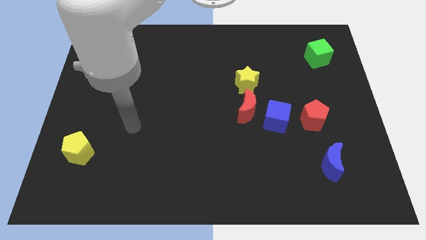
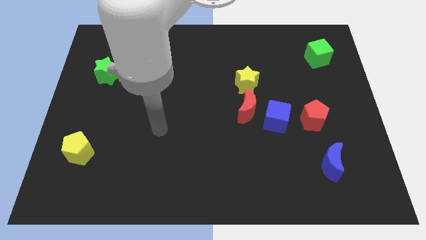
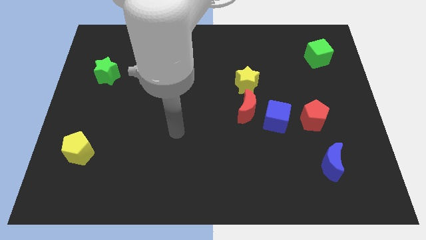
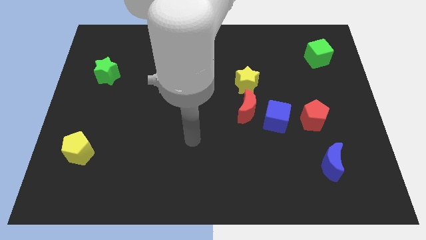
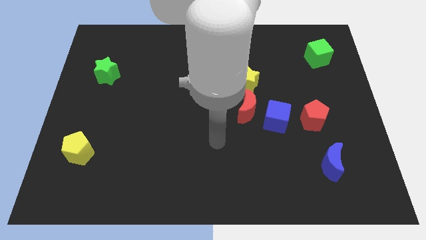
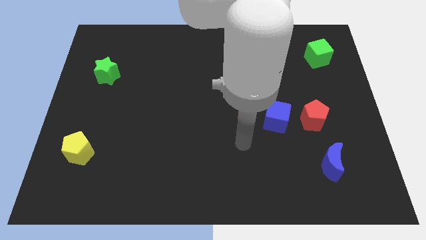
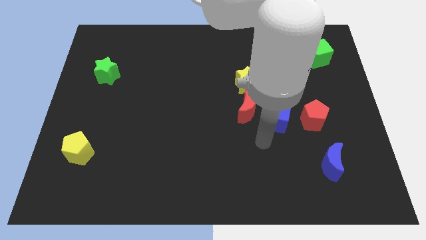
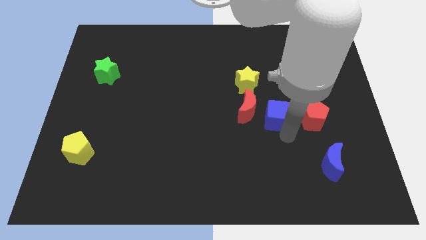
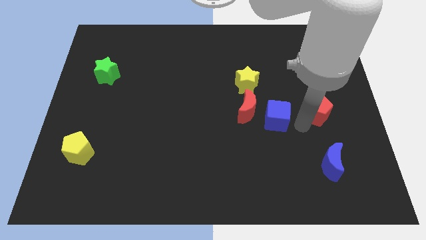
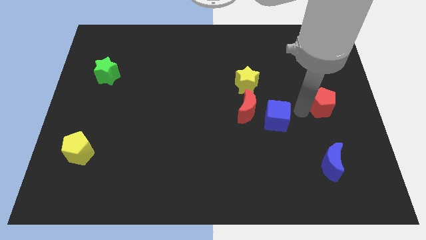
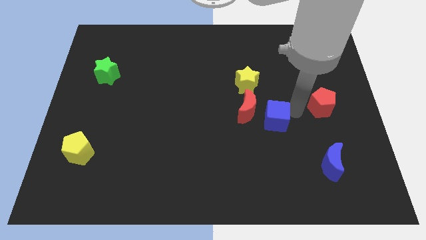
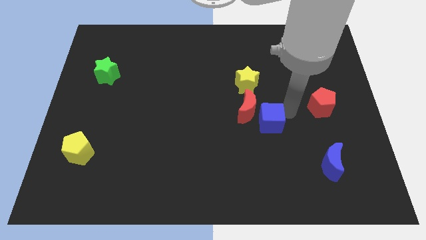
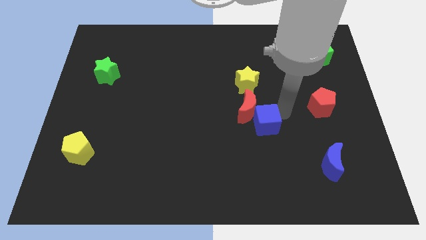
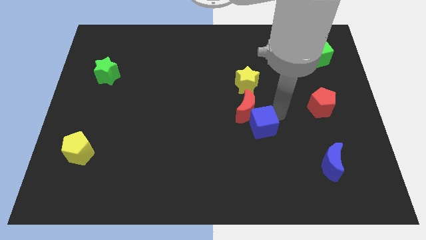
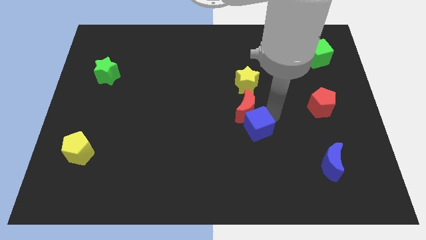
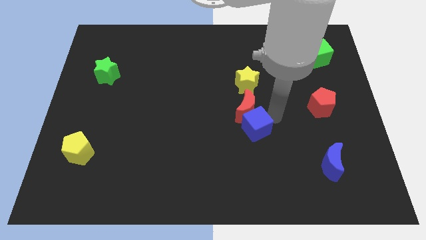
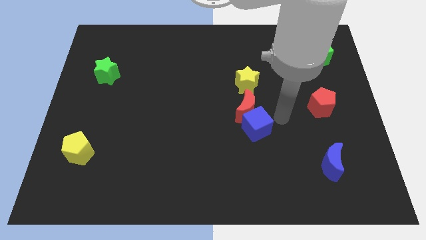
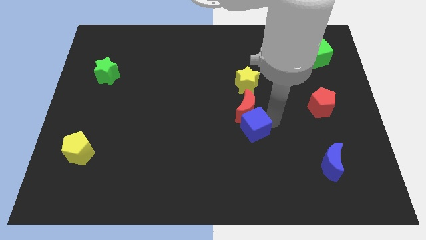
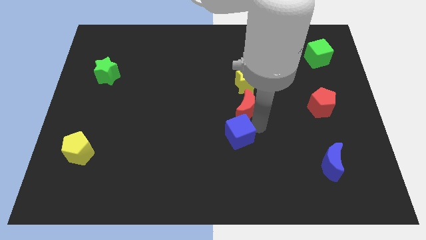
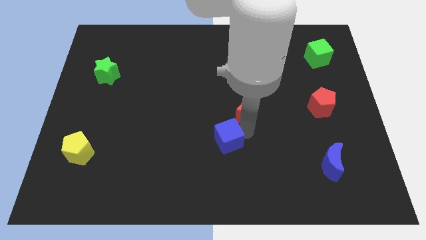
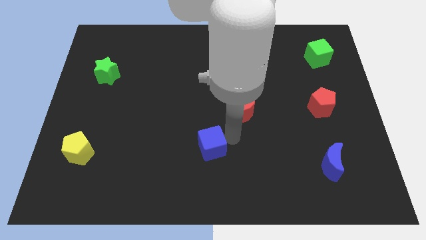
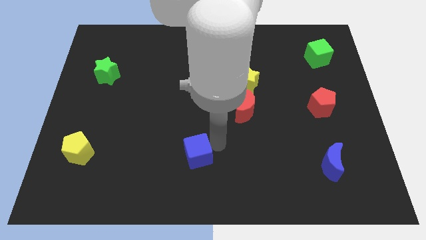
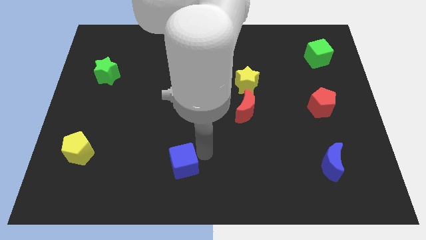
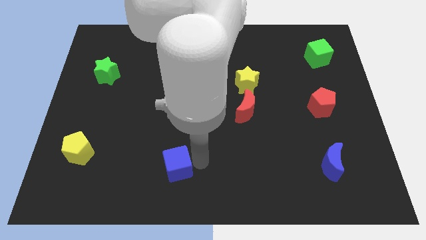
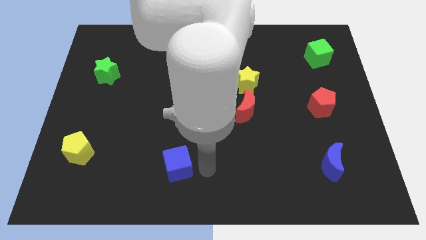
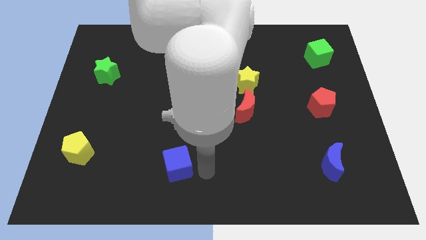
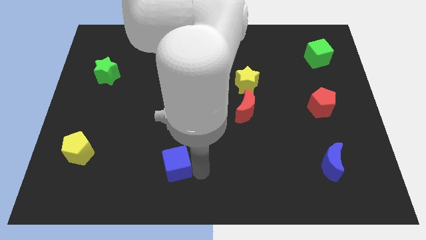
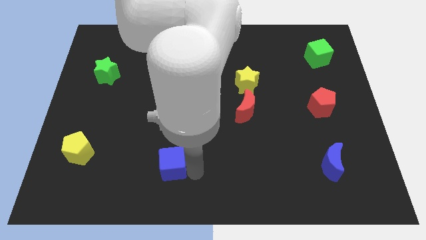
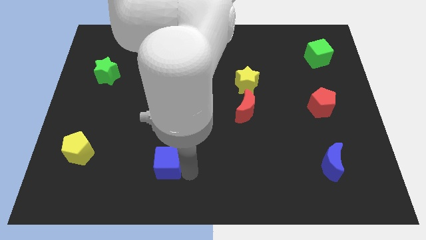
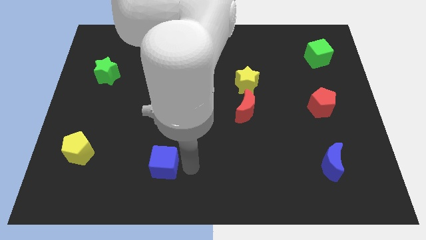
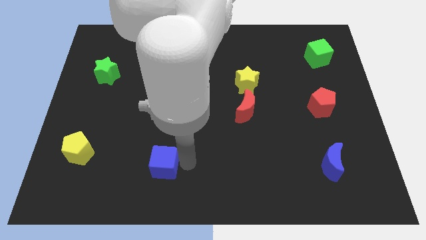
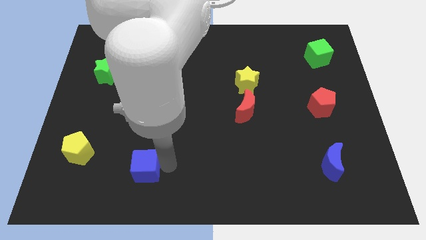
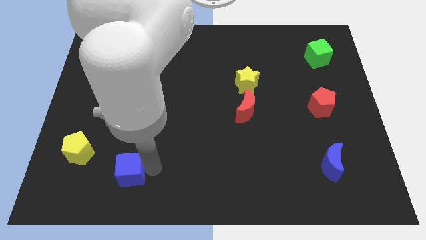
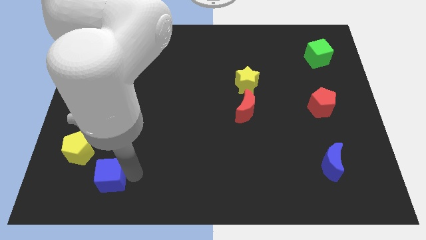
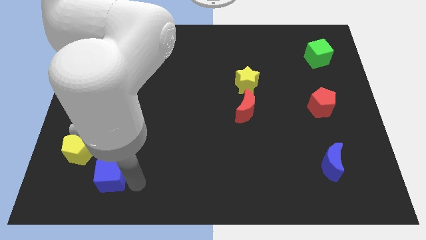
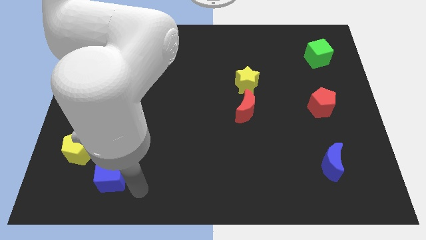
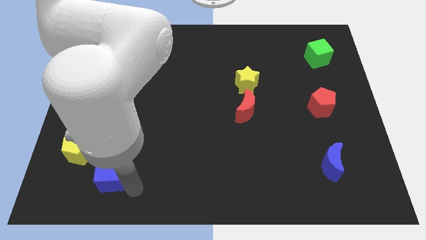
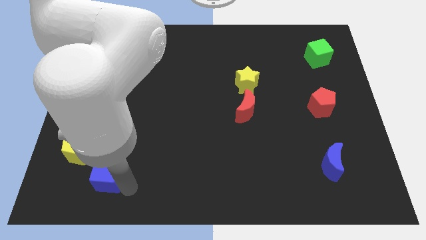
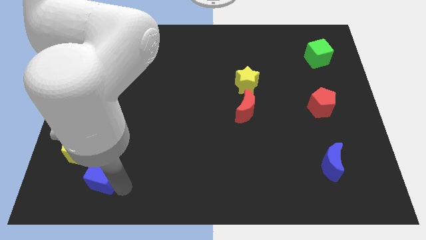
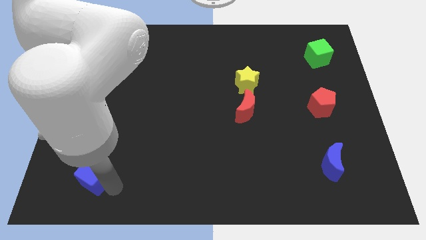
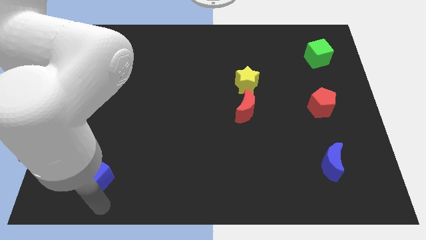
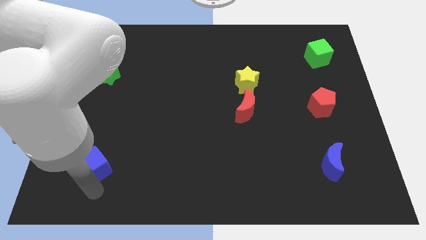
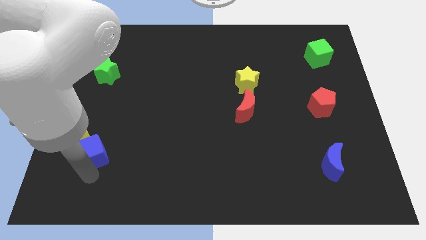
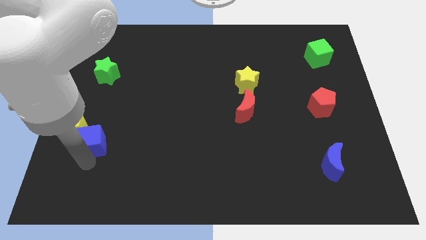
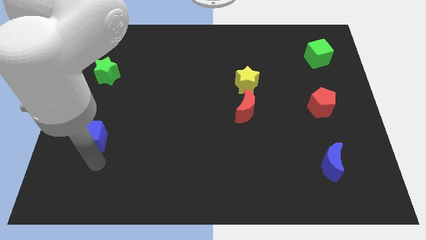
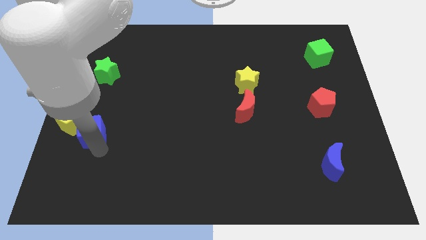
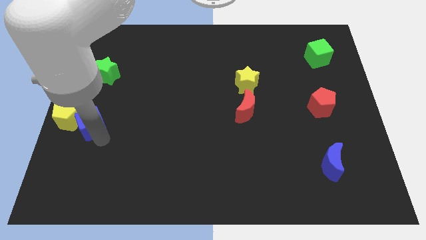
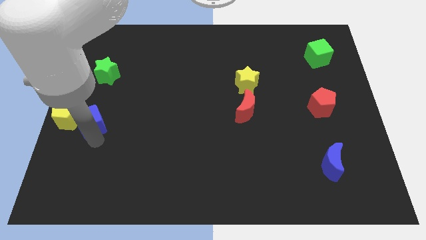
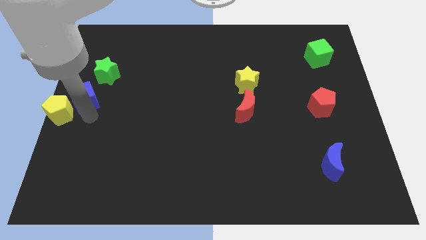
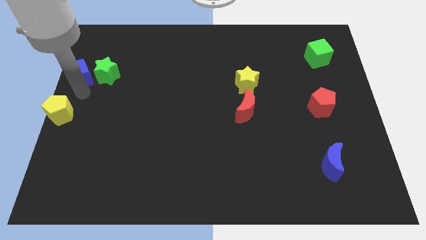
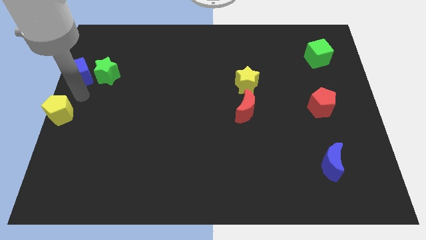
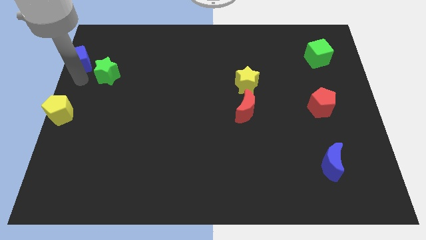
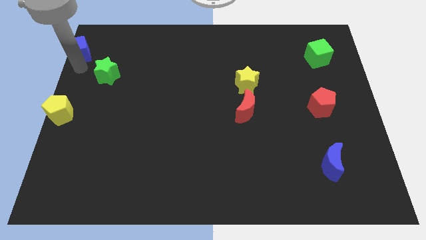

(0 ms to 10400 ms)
slide the blue cube to the top left corner

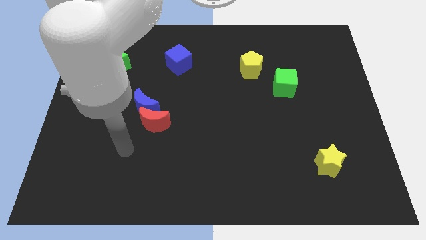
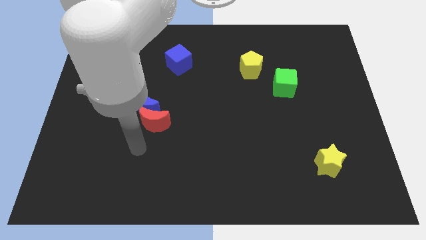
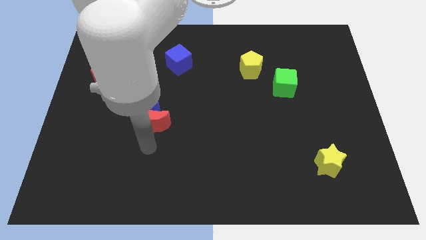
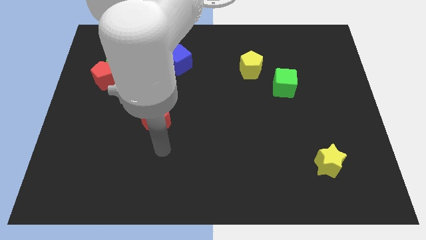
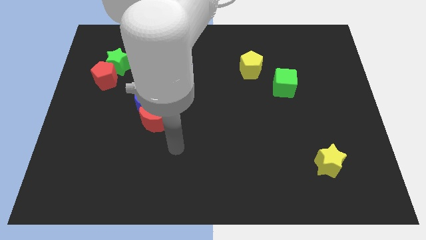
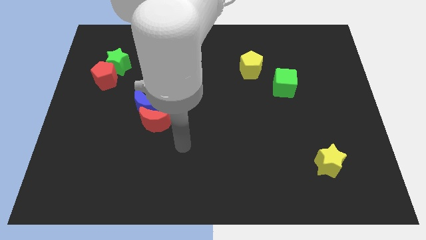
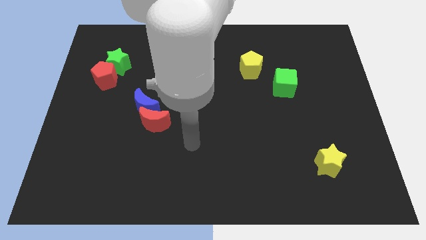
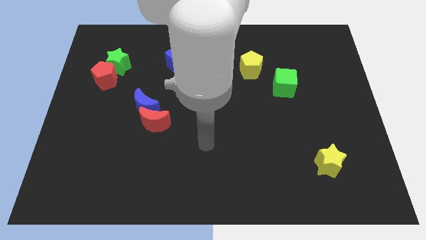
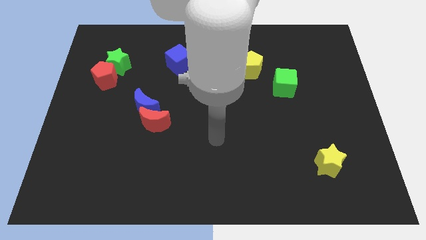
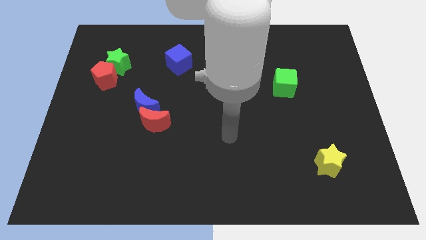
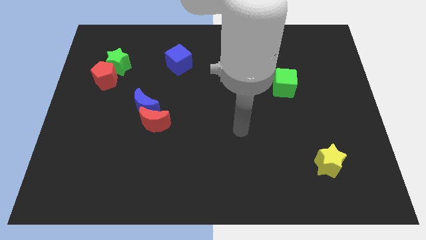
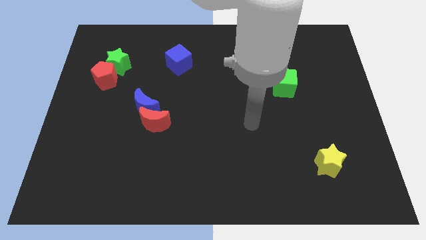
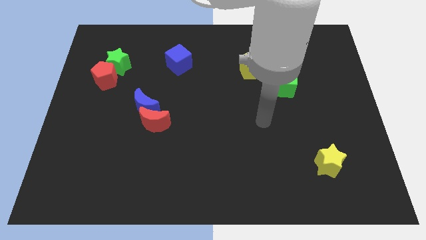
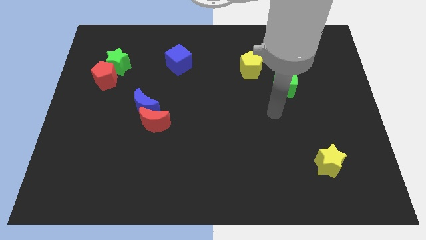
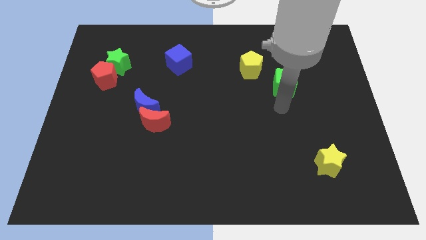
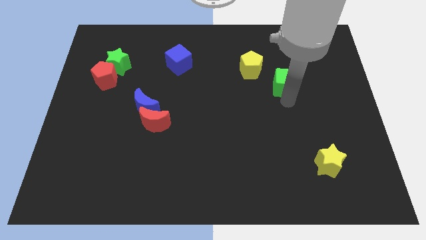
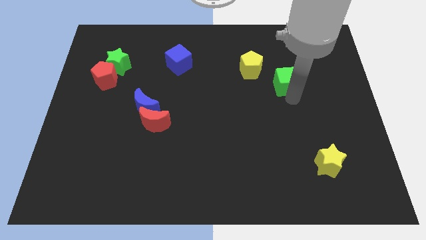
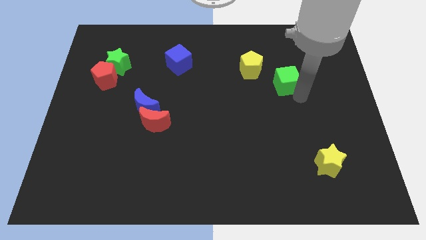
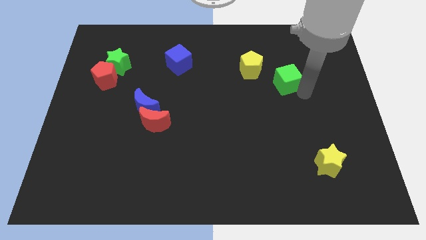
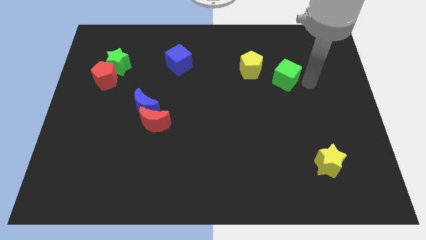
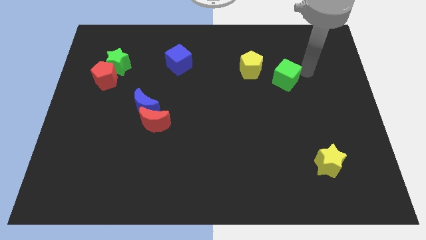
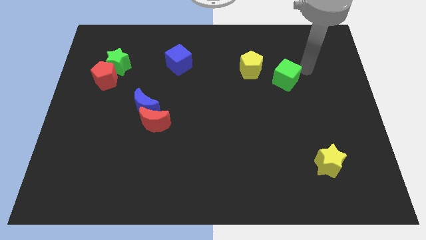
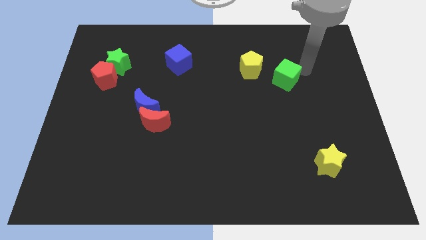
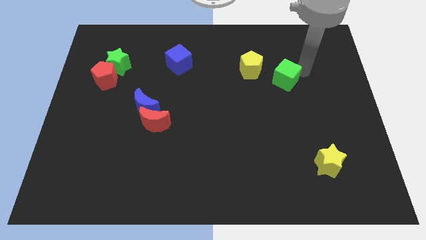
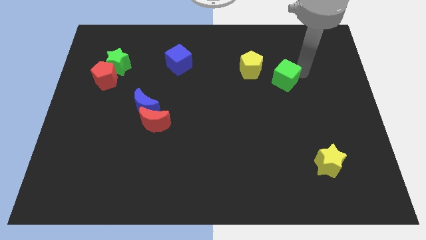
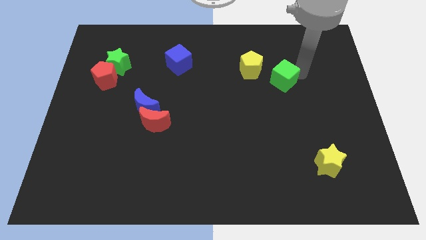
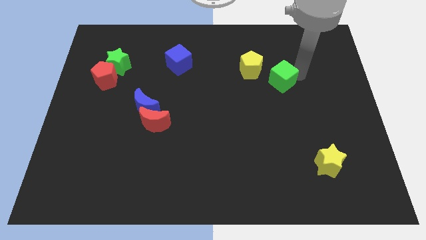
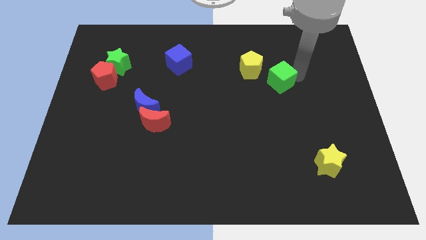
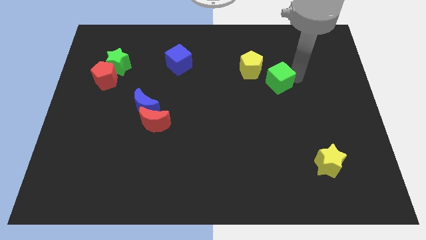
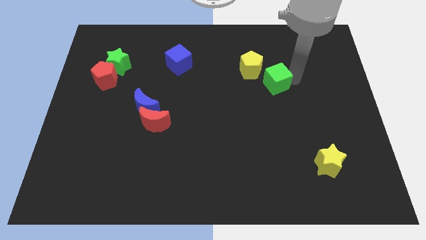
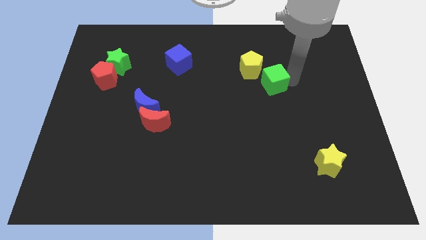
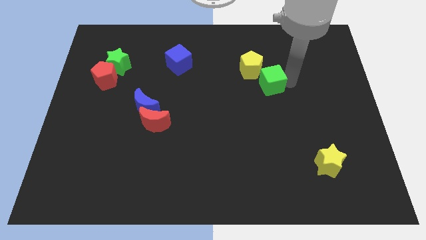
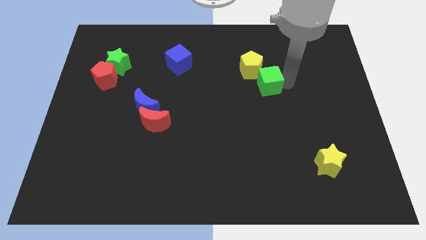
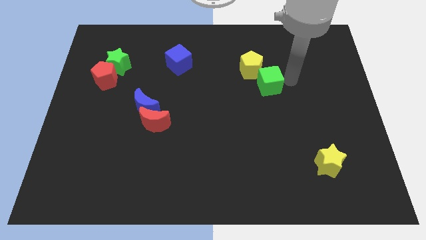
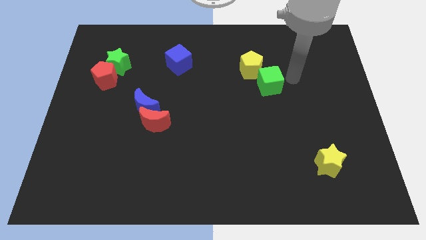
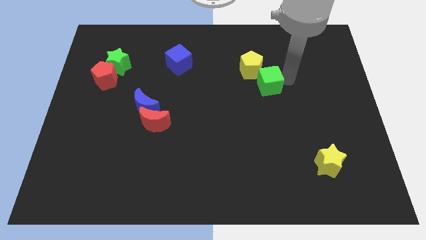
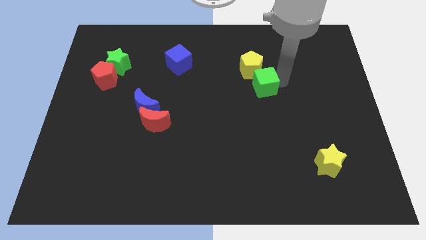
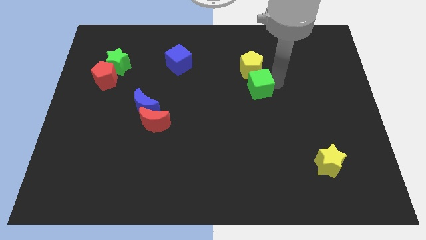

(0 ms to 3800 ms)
push the green cube to the center
